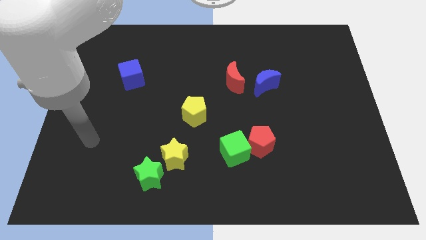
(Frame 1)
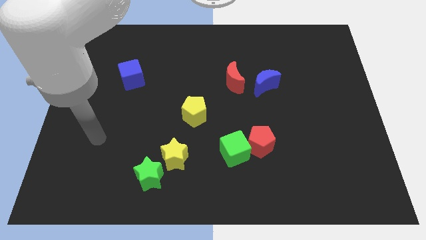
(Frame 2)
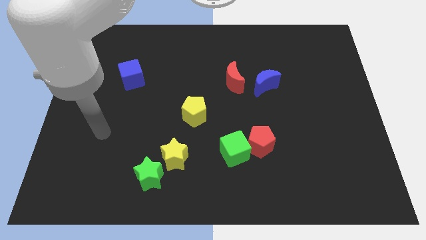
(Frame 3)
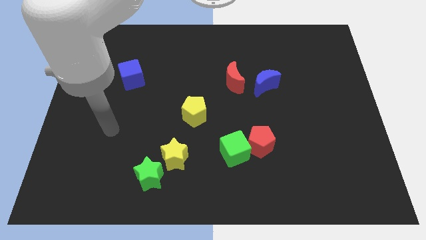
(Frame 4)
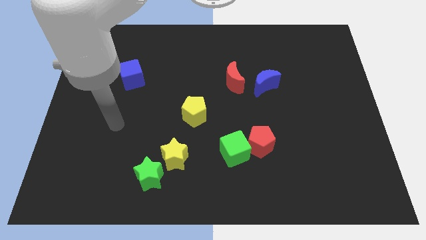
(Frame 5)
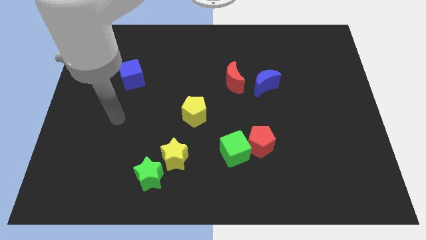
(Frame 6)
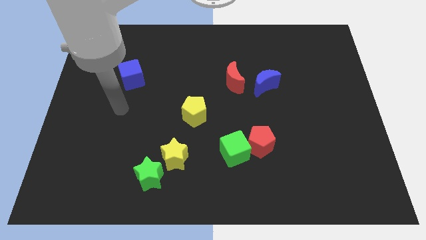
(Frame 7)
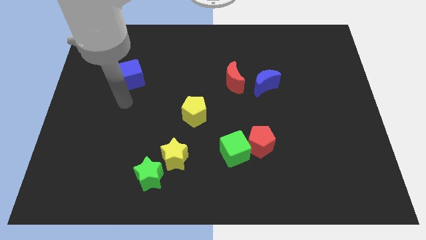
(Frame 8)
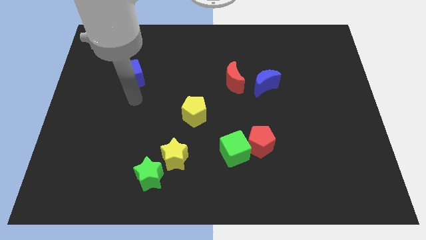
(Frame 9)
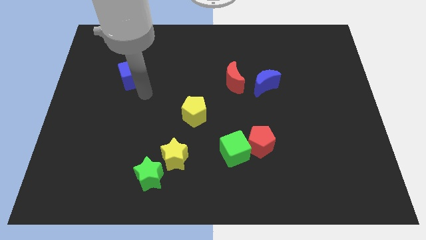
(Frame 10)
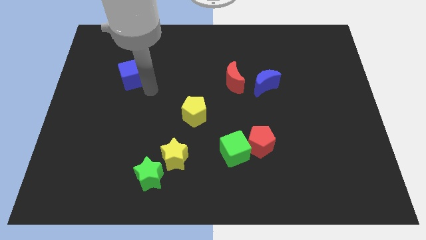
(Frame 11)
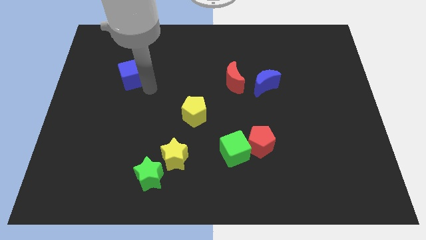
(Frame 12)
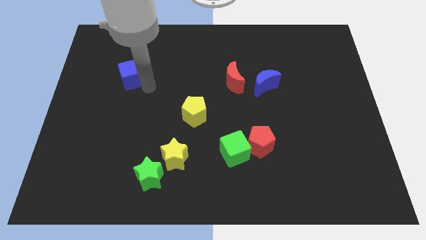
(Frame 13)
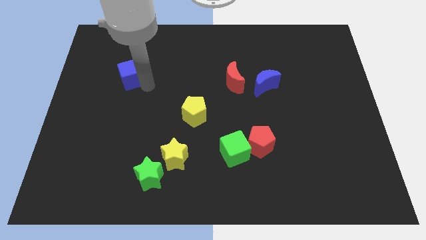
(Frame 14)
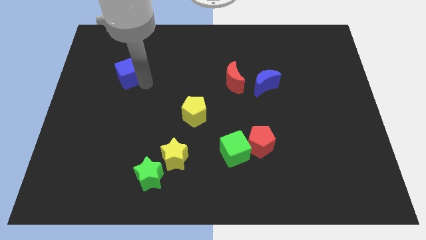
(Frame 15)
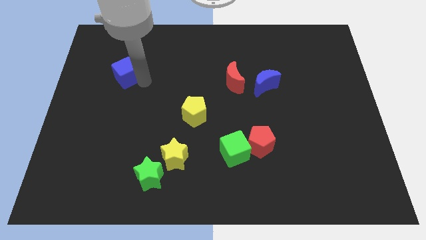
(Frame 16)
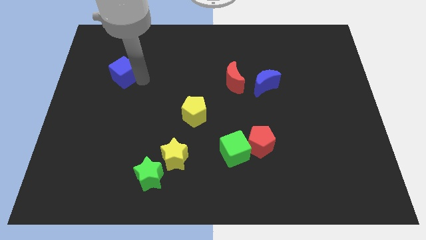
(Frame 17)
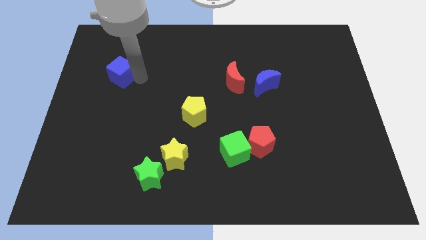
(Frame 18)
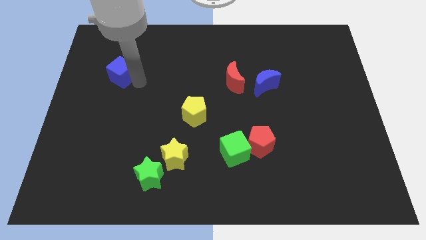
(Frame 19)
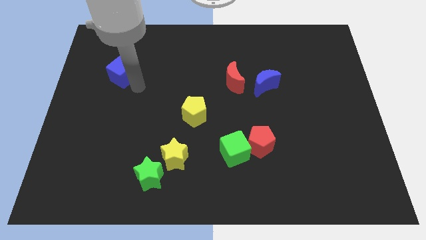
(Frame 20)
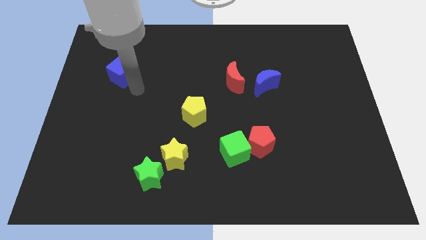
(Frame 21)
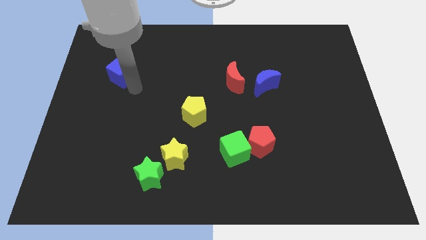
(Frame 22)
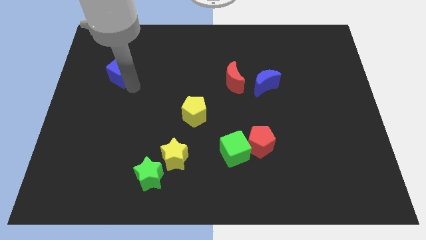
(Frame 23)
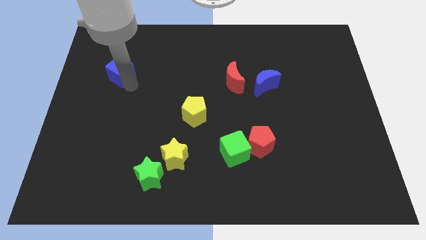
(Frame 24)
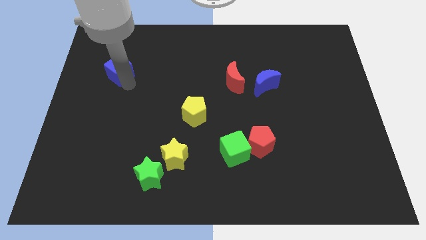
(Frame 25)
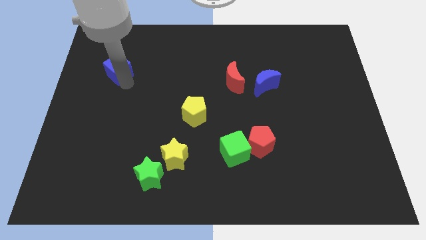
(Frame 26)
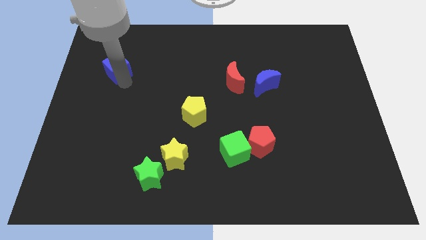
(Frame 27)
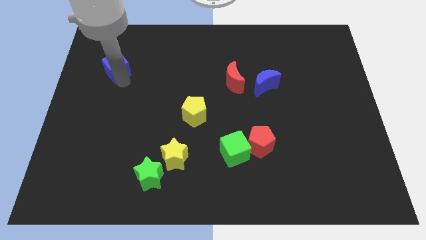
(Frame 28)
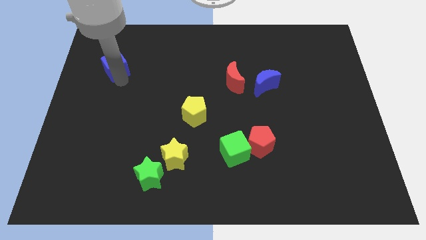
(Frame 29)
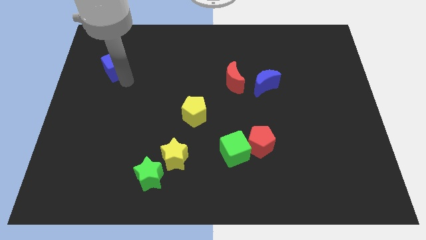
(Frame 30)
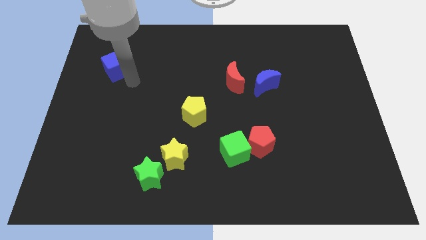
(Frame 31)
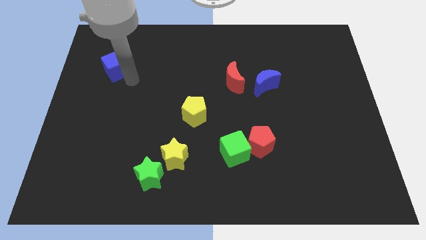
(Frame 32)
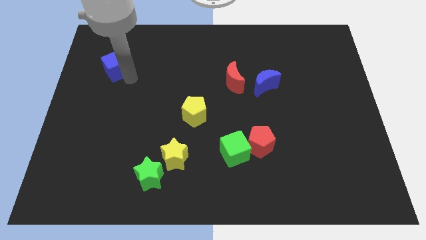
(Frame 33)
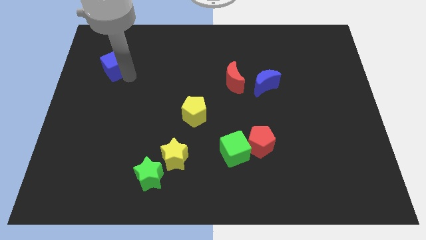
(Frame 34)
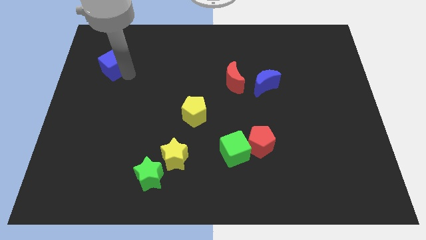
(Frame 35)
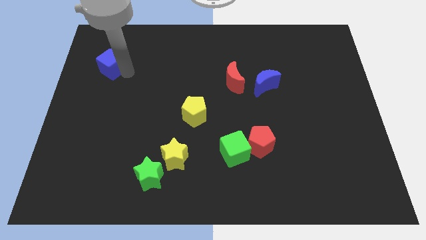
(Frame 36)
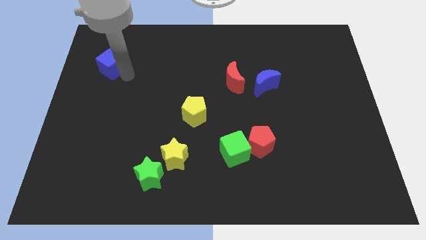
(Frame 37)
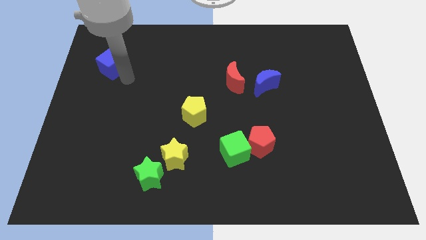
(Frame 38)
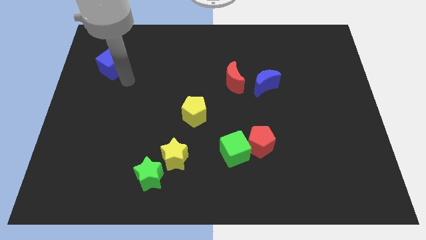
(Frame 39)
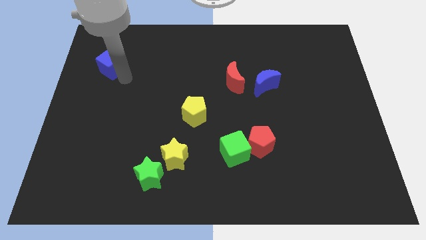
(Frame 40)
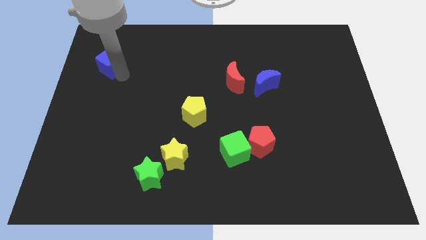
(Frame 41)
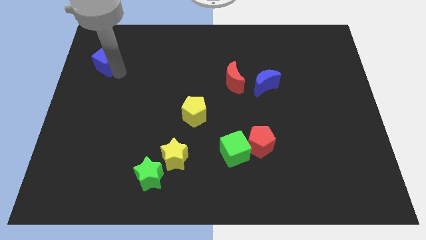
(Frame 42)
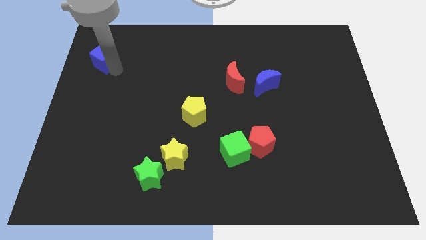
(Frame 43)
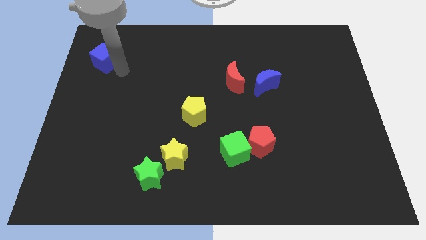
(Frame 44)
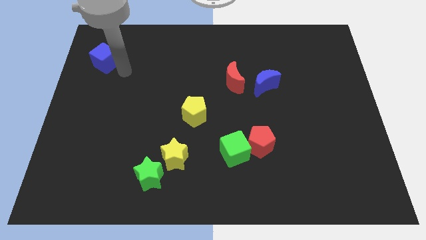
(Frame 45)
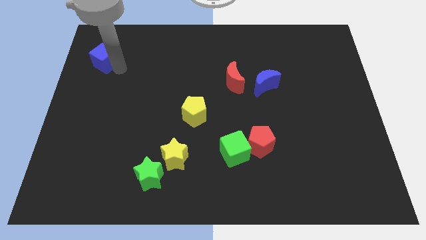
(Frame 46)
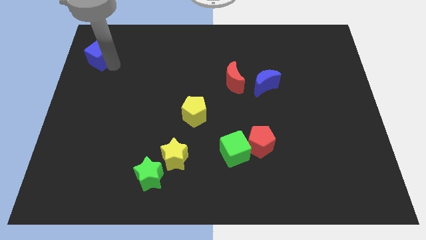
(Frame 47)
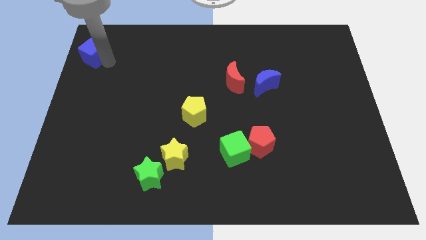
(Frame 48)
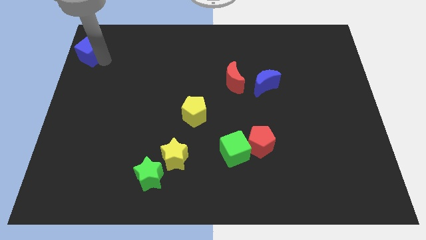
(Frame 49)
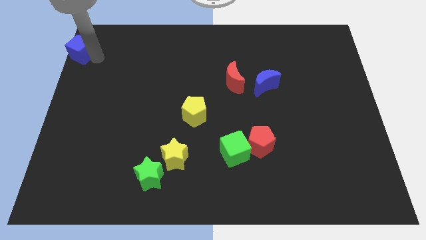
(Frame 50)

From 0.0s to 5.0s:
push the blue cube to the upper left corner

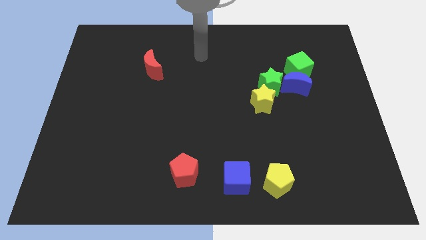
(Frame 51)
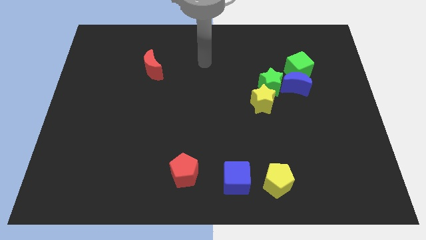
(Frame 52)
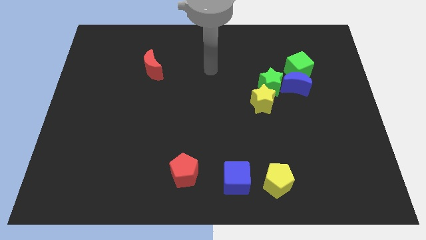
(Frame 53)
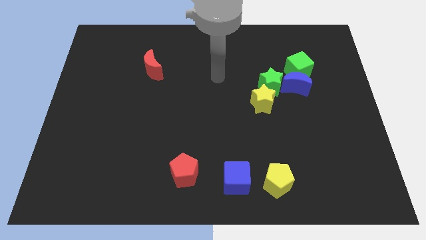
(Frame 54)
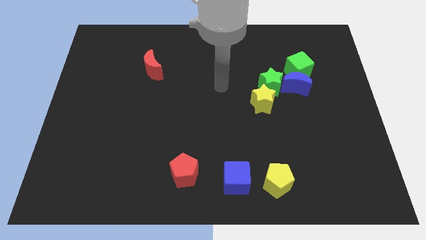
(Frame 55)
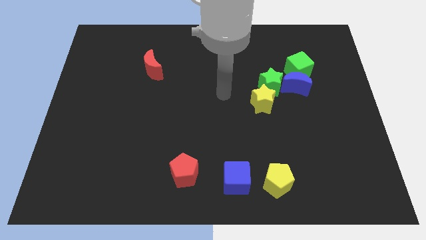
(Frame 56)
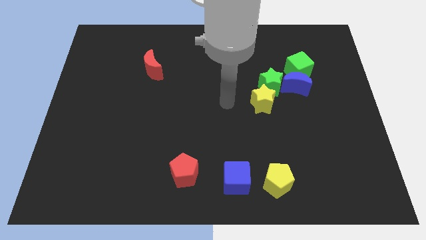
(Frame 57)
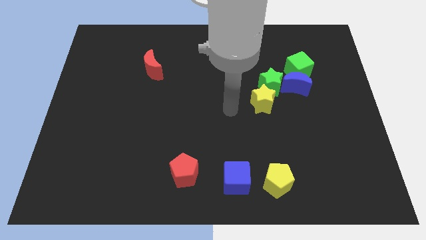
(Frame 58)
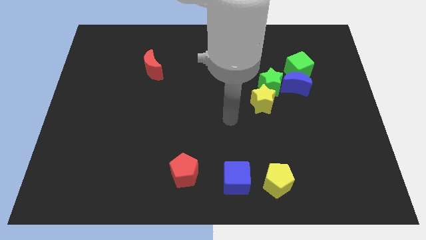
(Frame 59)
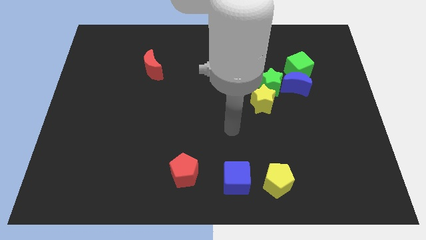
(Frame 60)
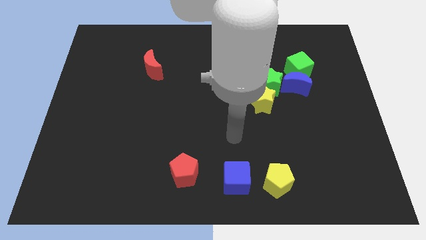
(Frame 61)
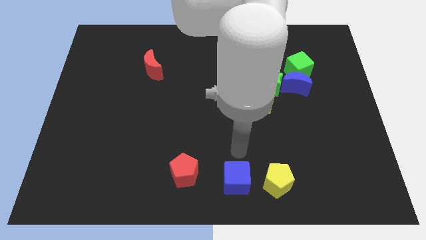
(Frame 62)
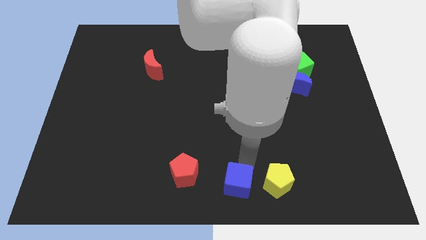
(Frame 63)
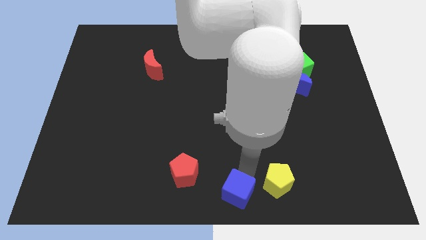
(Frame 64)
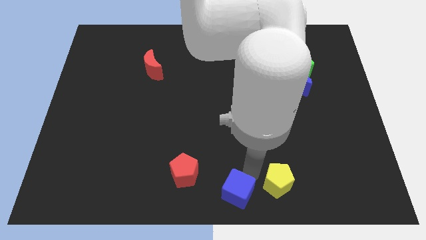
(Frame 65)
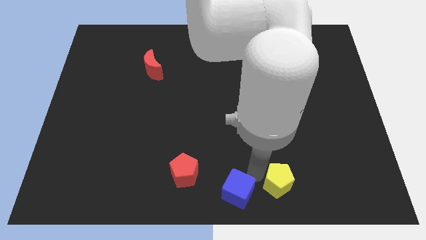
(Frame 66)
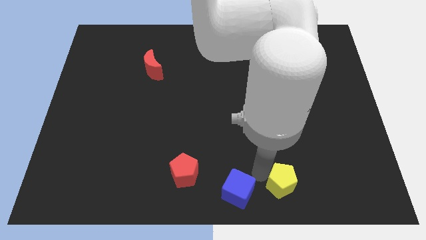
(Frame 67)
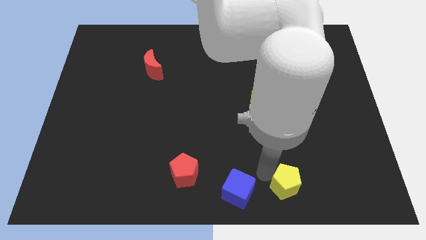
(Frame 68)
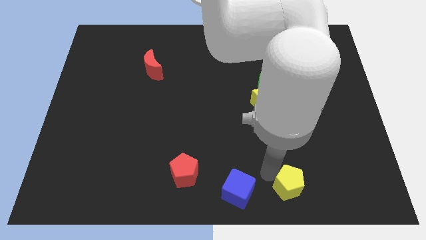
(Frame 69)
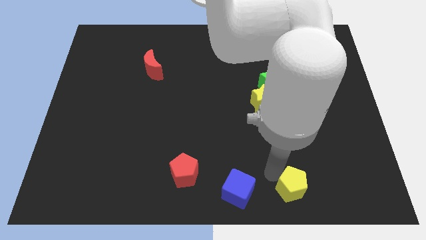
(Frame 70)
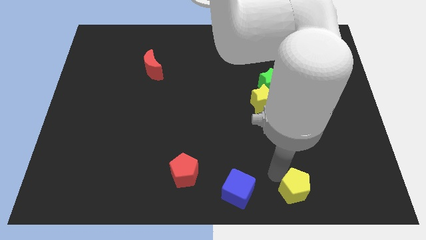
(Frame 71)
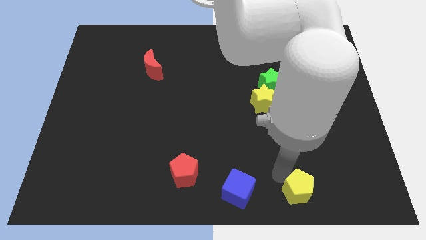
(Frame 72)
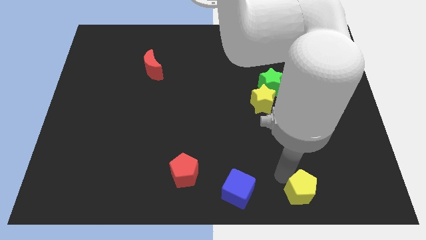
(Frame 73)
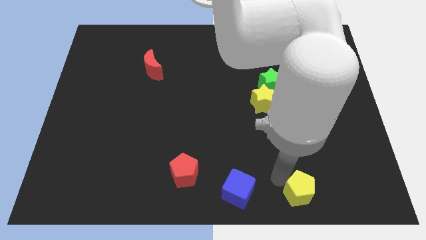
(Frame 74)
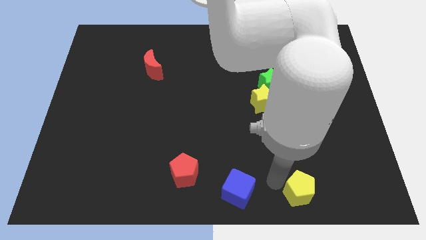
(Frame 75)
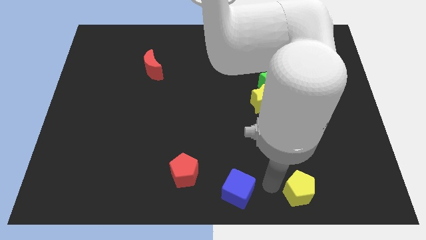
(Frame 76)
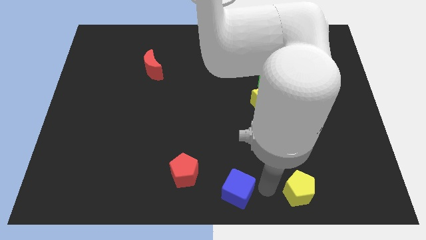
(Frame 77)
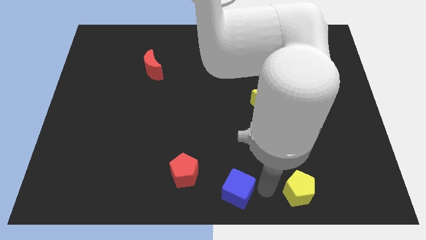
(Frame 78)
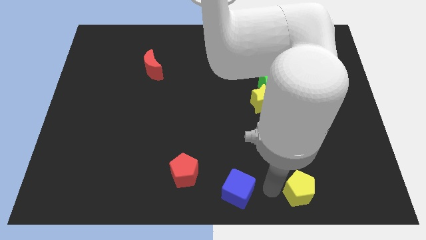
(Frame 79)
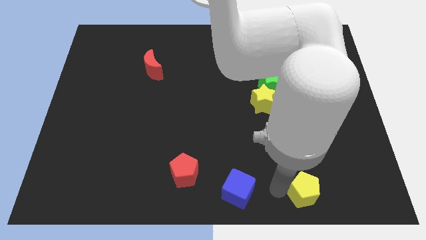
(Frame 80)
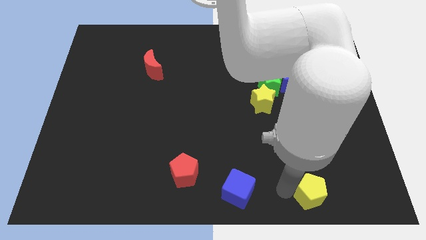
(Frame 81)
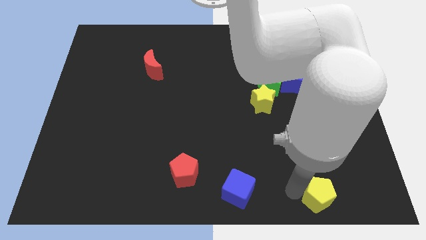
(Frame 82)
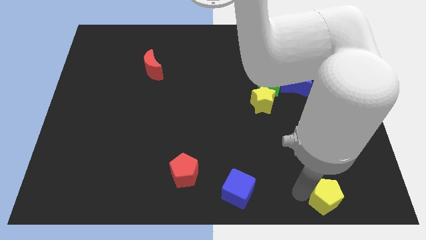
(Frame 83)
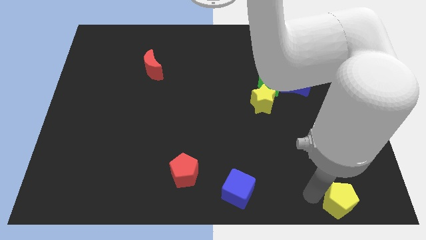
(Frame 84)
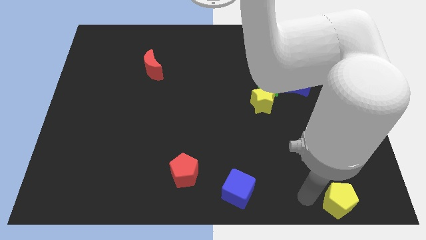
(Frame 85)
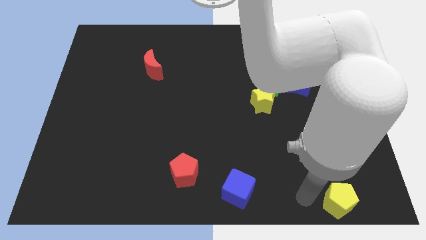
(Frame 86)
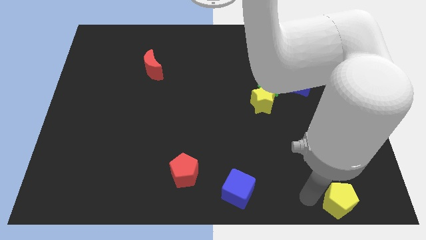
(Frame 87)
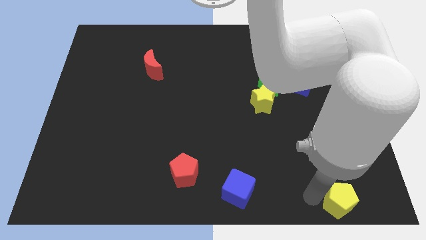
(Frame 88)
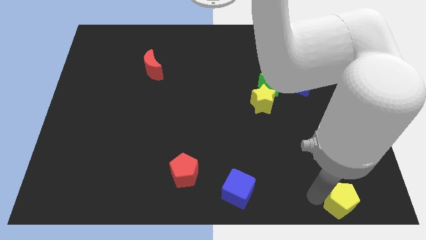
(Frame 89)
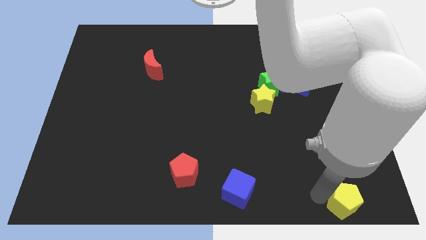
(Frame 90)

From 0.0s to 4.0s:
put the yellow pentagon to the bottom right
